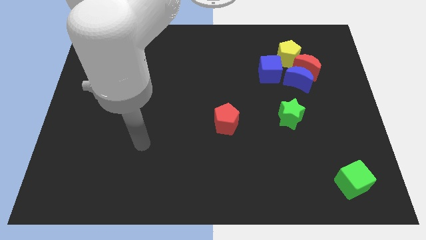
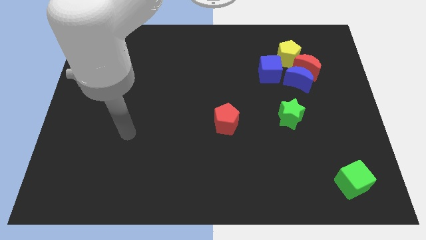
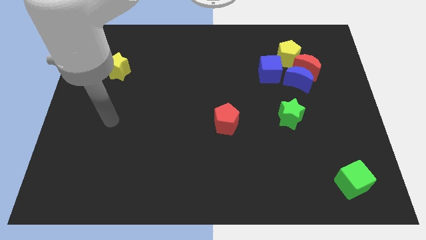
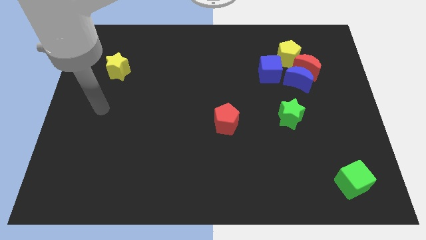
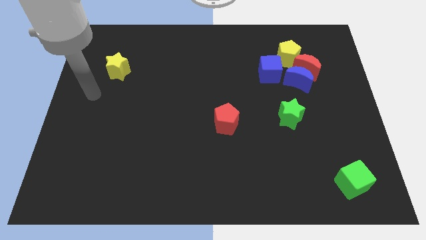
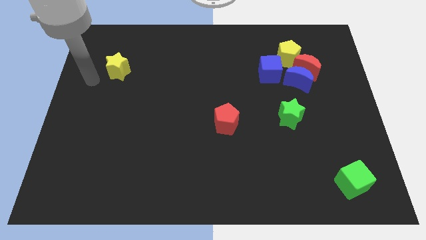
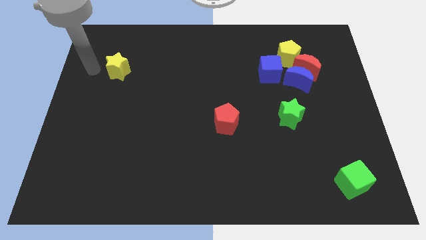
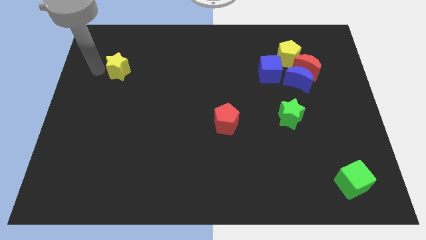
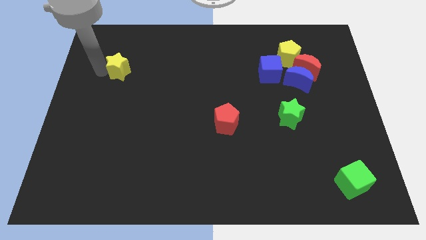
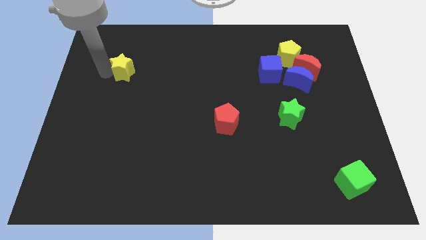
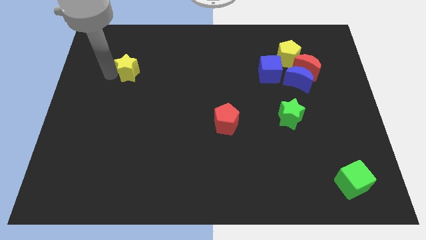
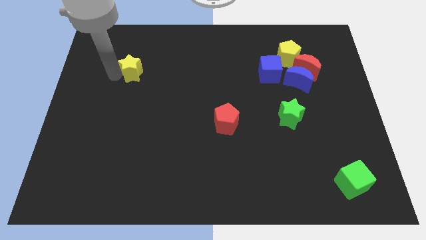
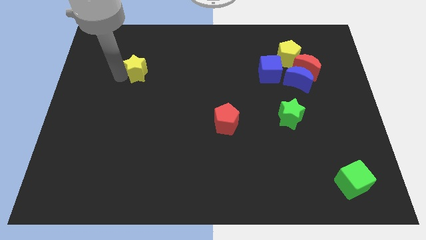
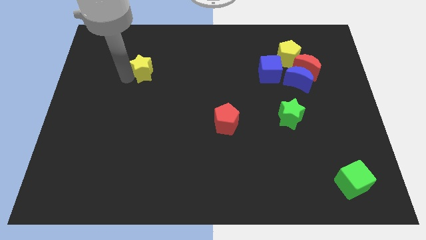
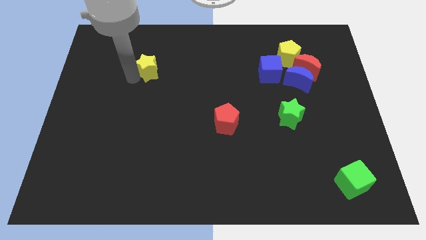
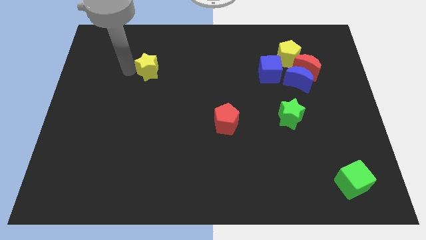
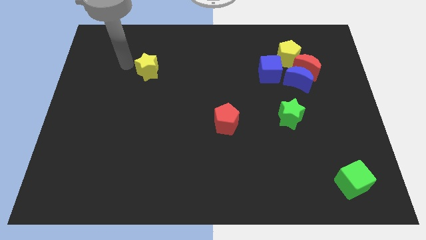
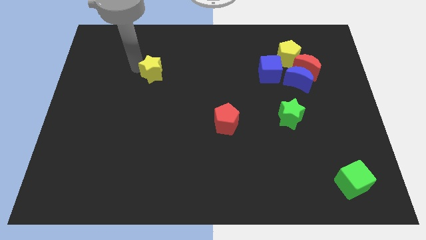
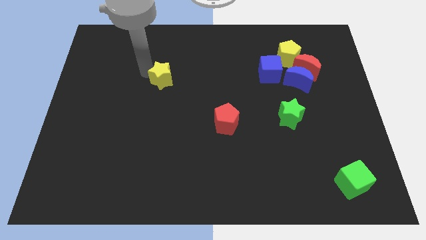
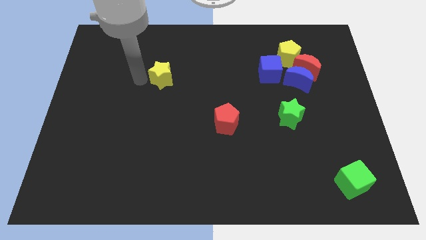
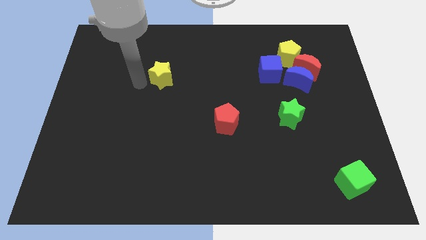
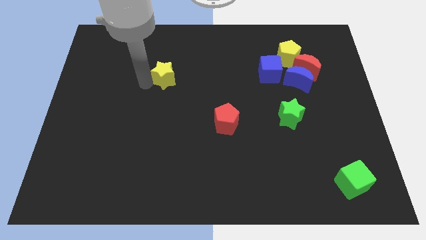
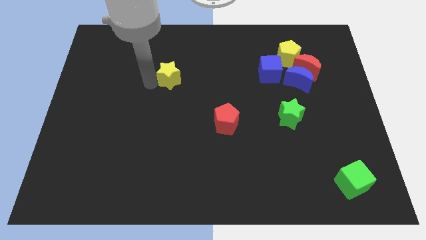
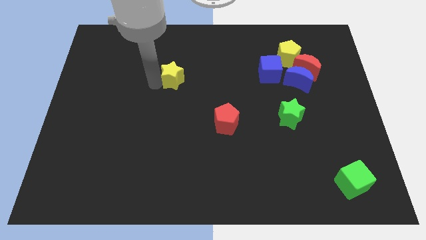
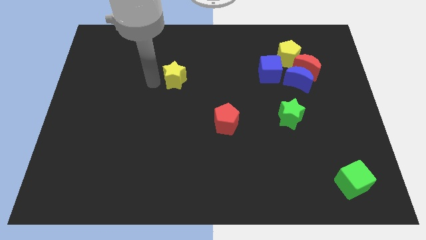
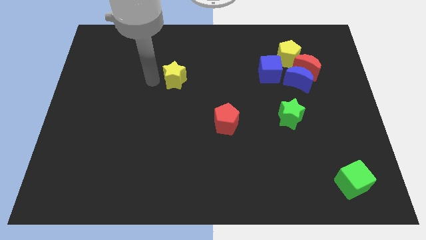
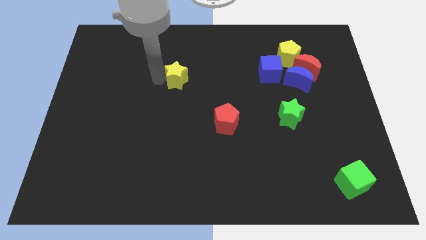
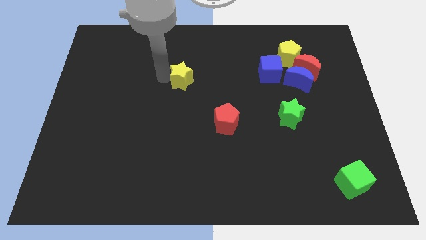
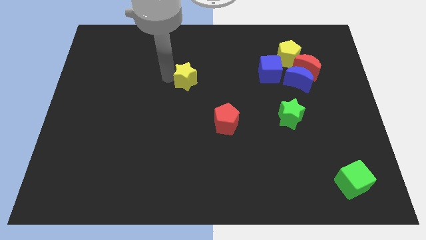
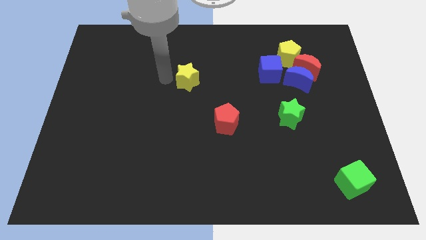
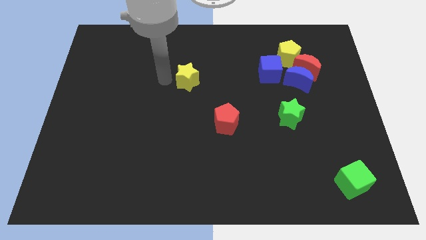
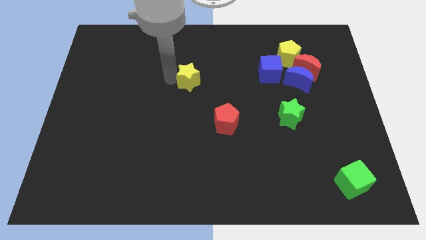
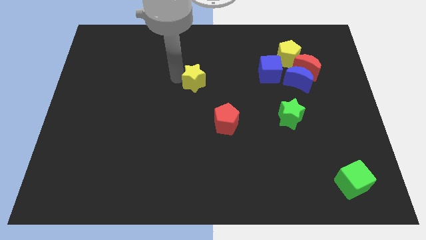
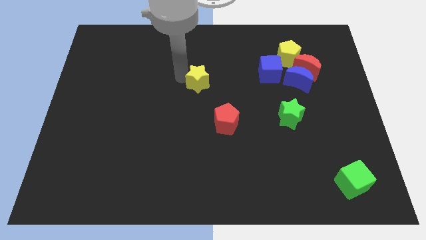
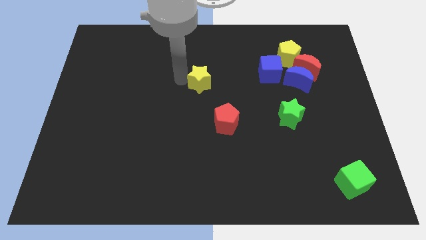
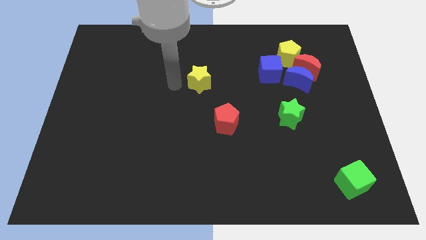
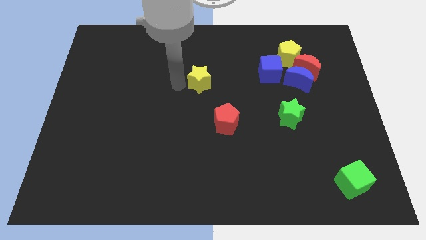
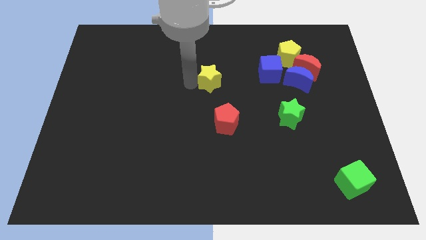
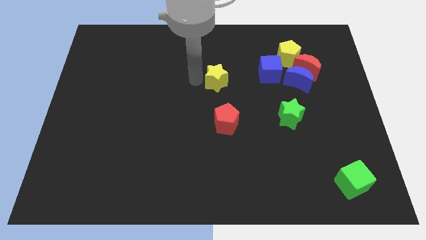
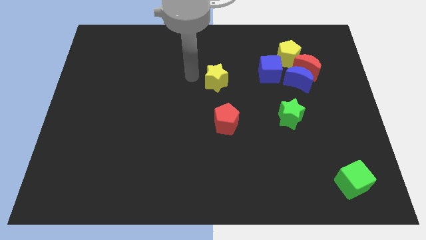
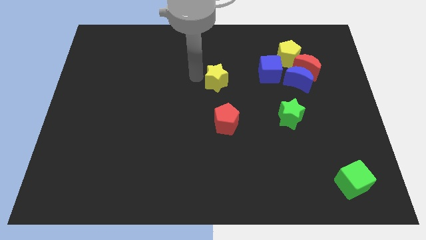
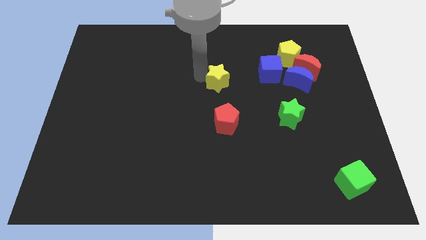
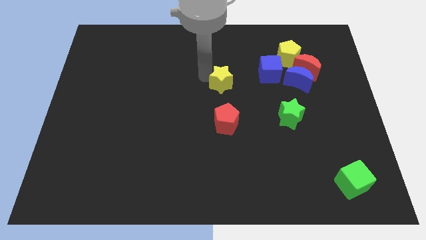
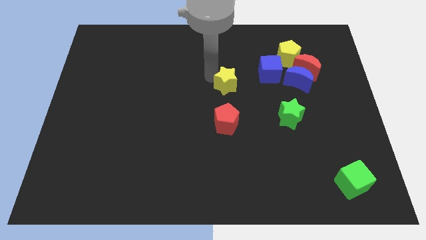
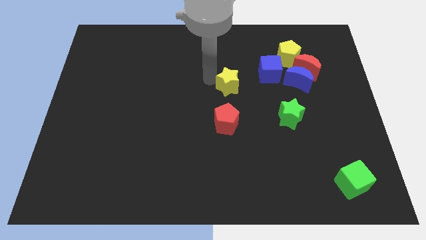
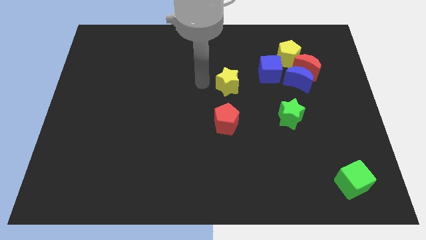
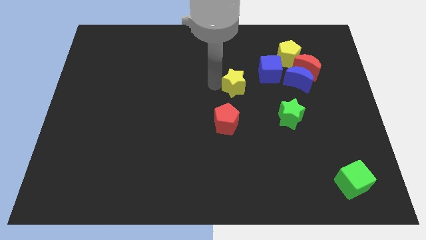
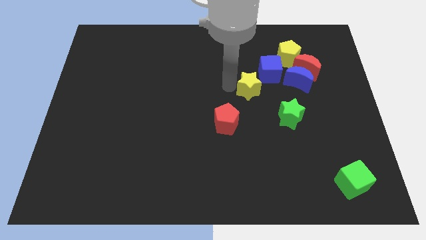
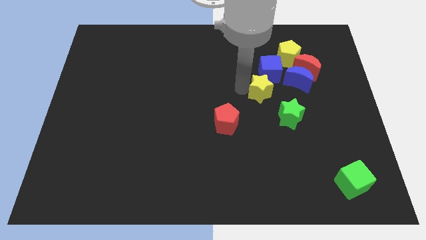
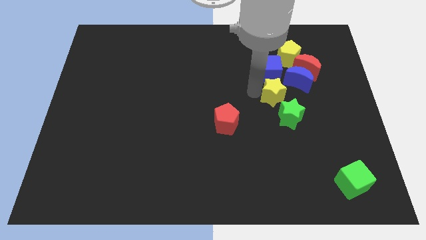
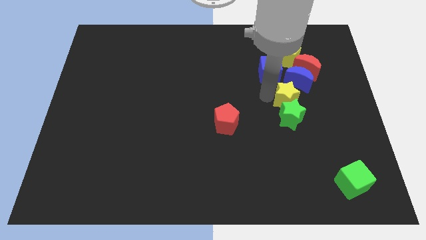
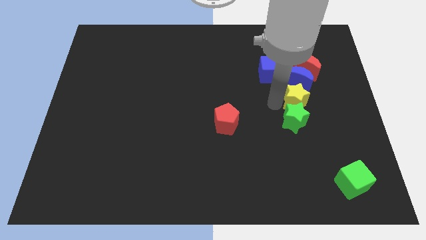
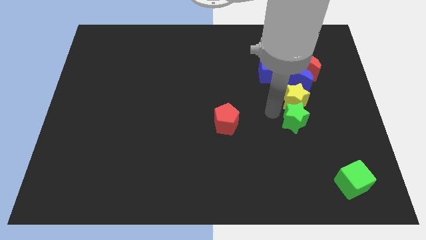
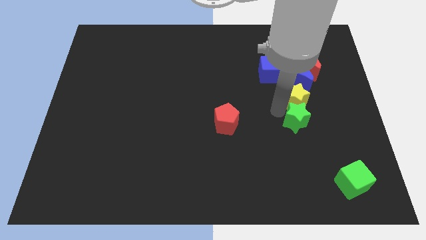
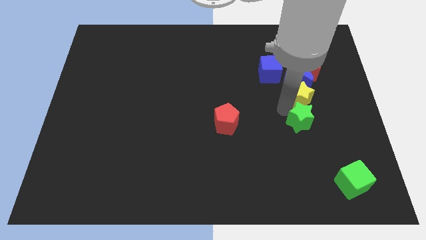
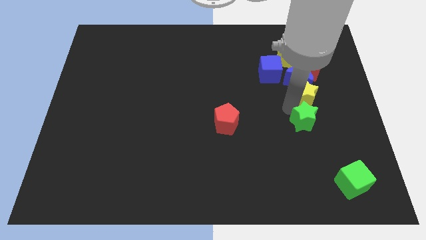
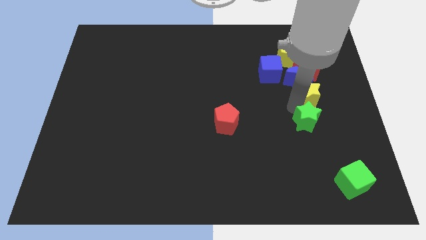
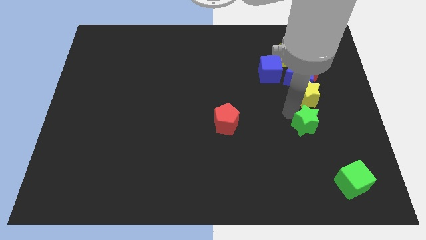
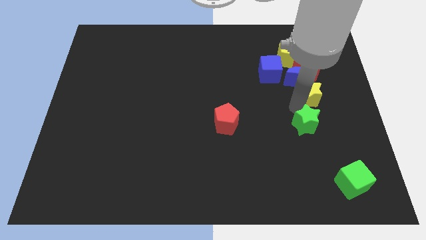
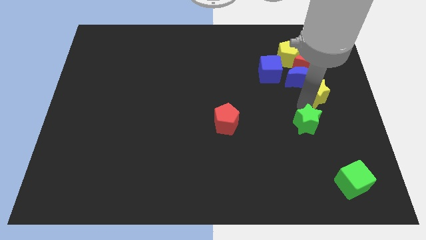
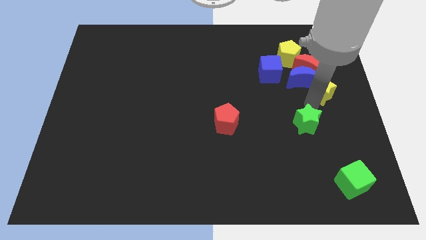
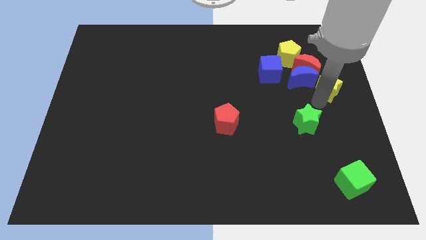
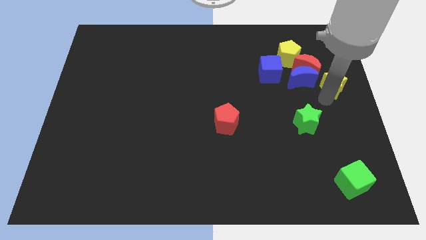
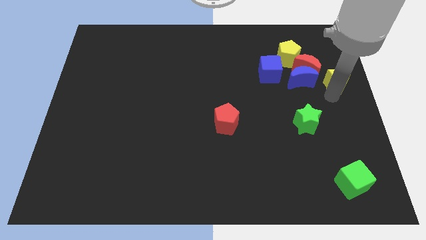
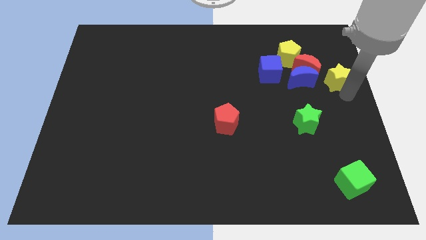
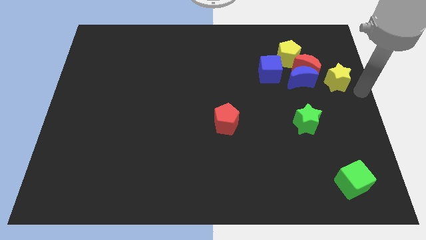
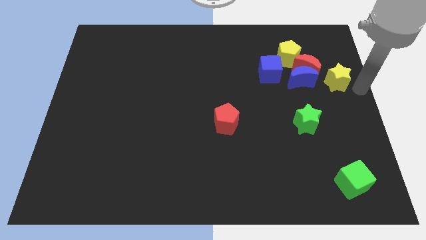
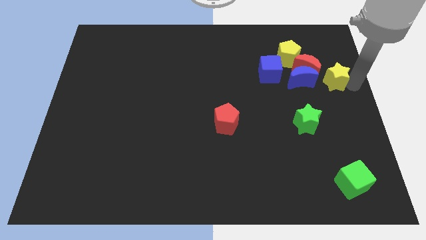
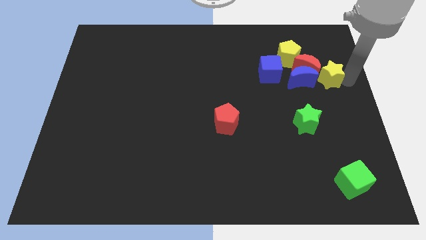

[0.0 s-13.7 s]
push the yellow star to the red moon
